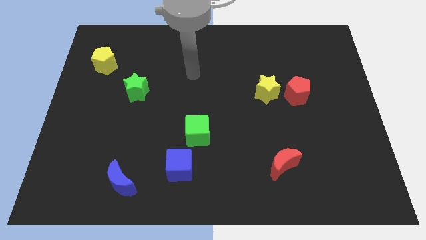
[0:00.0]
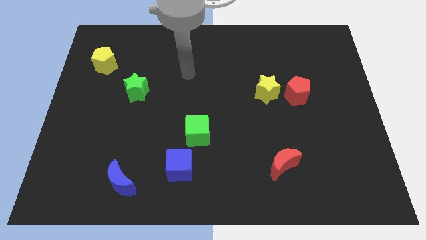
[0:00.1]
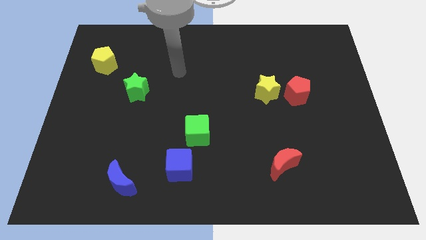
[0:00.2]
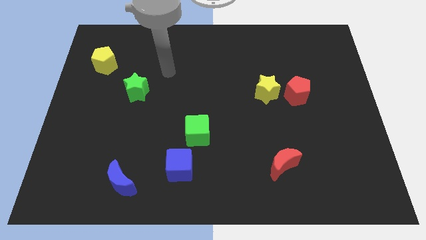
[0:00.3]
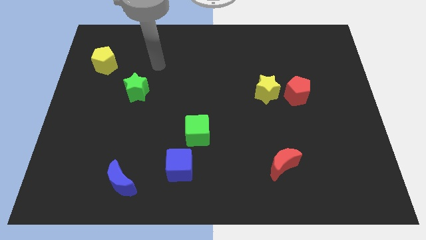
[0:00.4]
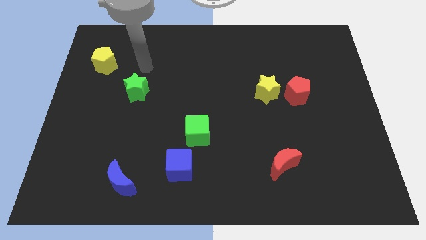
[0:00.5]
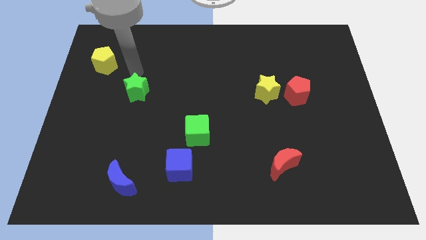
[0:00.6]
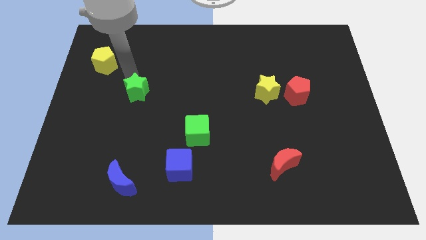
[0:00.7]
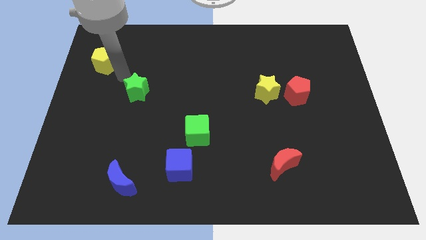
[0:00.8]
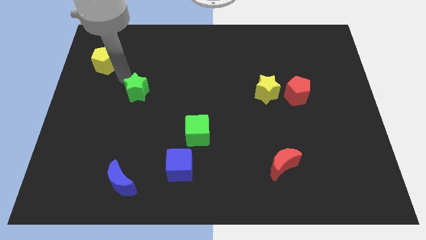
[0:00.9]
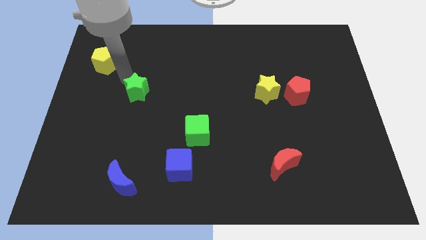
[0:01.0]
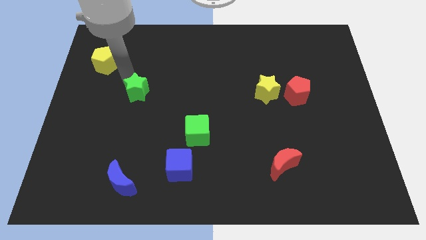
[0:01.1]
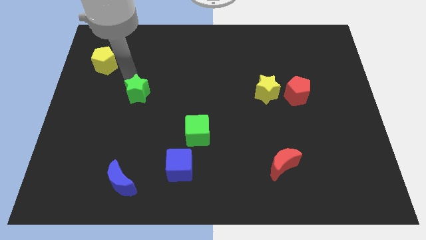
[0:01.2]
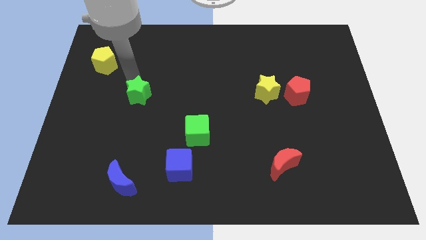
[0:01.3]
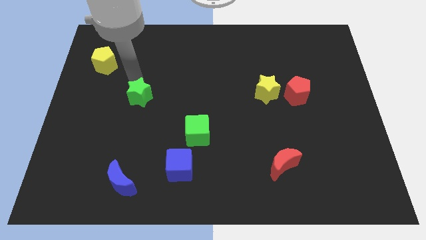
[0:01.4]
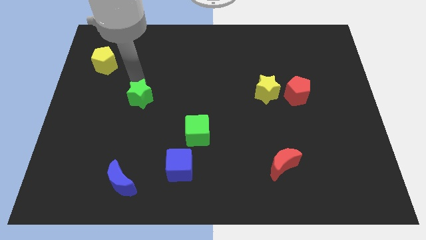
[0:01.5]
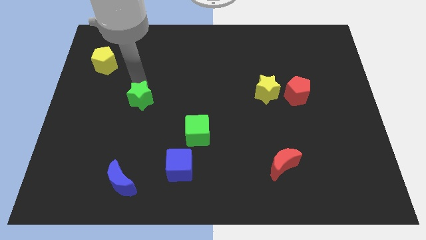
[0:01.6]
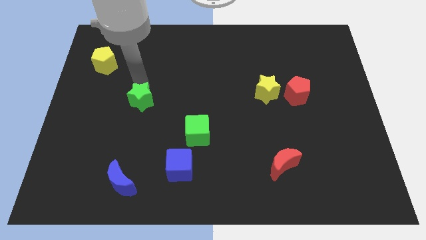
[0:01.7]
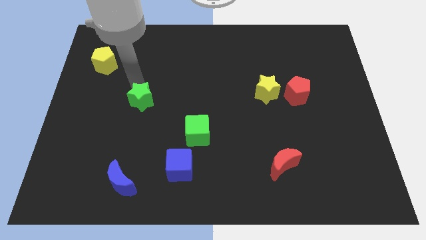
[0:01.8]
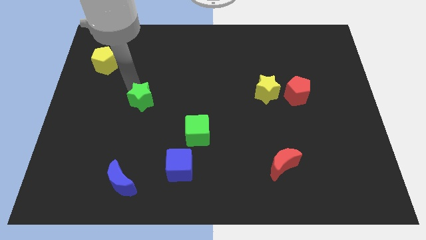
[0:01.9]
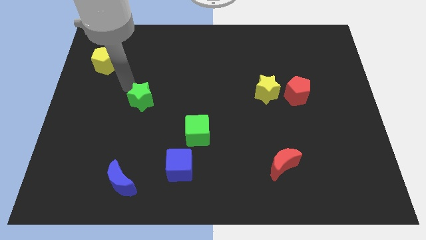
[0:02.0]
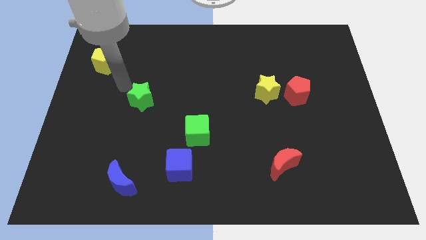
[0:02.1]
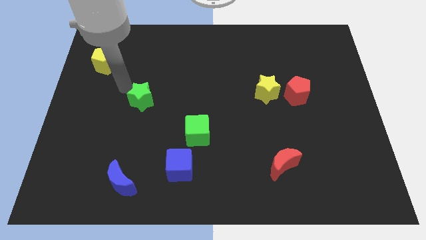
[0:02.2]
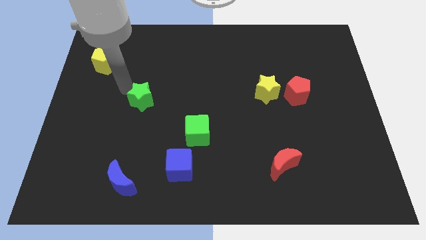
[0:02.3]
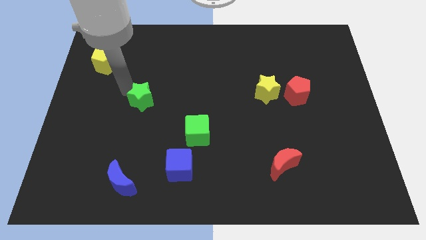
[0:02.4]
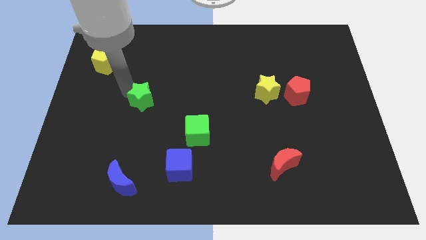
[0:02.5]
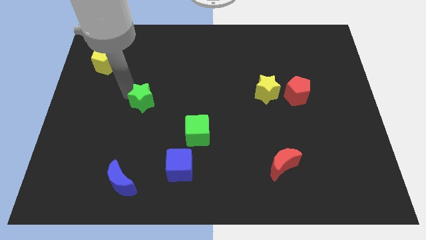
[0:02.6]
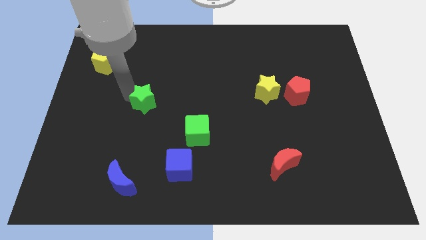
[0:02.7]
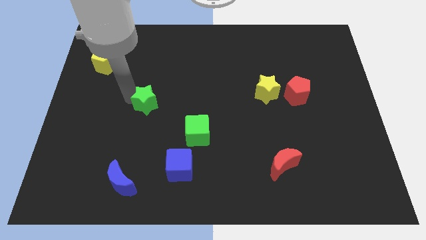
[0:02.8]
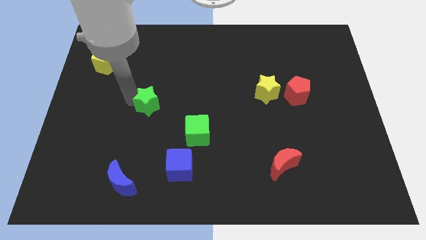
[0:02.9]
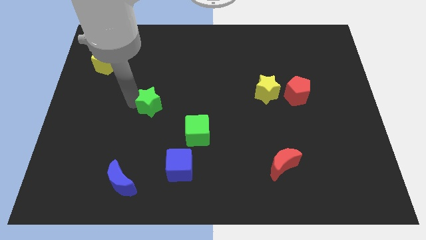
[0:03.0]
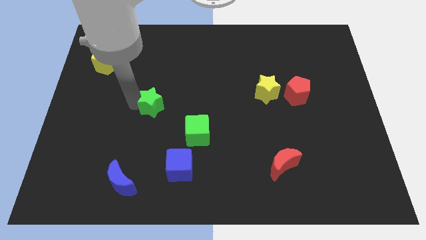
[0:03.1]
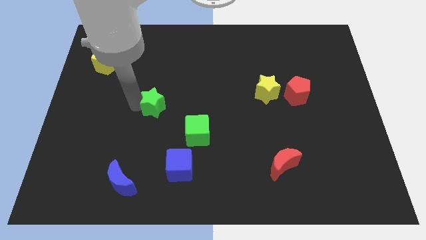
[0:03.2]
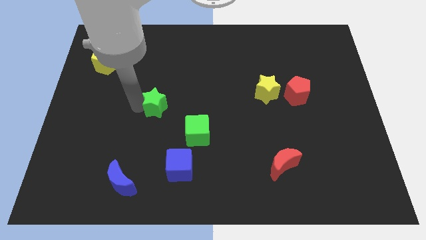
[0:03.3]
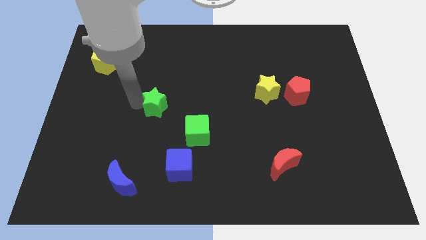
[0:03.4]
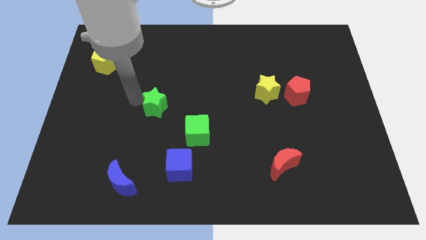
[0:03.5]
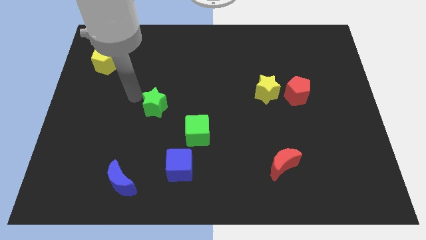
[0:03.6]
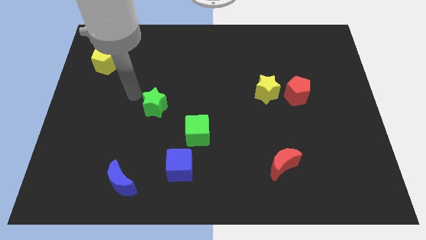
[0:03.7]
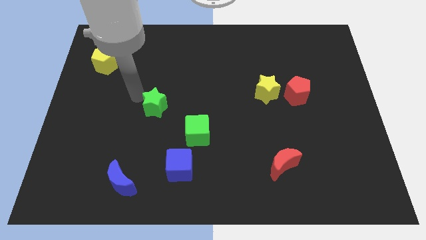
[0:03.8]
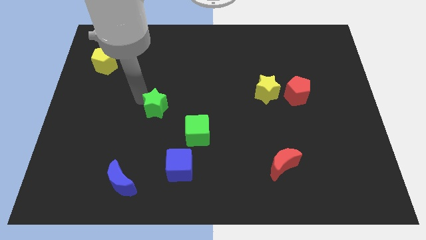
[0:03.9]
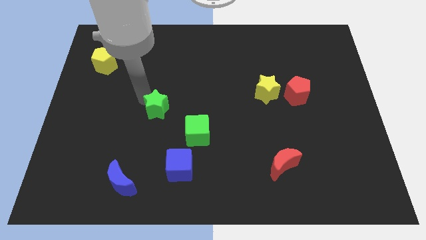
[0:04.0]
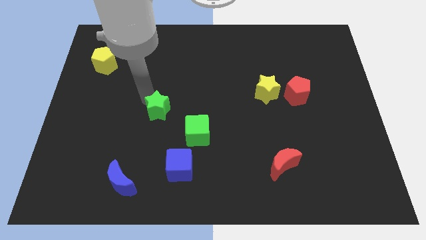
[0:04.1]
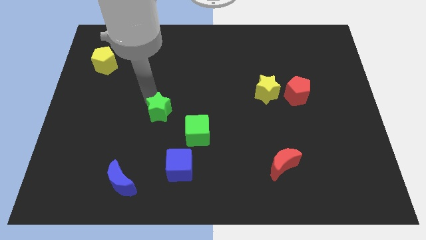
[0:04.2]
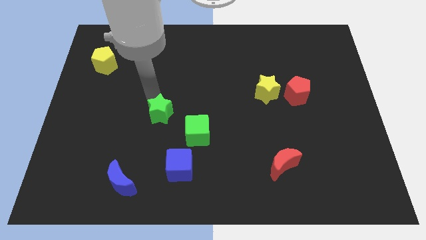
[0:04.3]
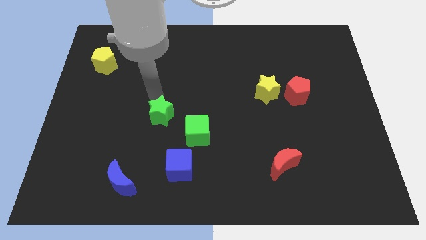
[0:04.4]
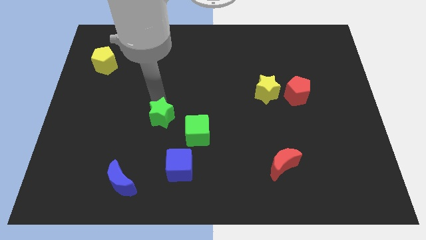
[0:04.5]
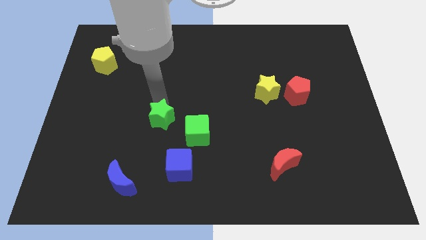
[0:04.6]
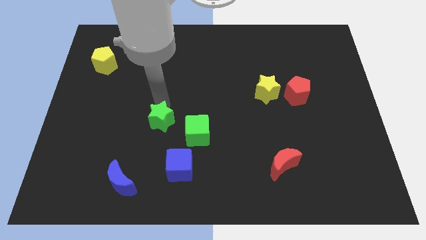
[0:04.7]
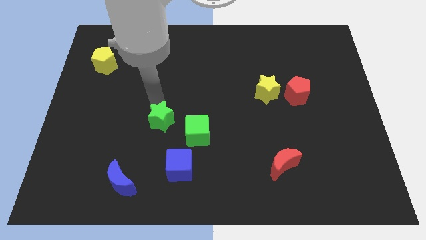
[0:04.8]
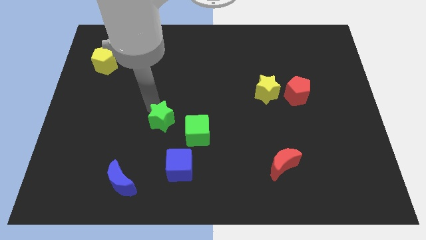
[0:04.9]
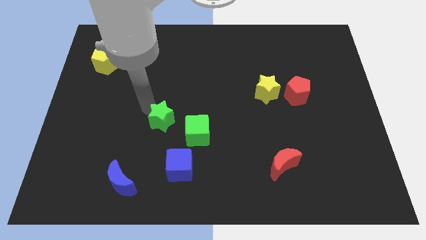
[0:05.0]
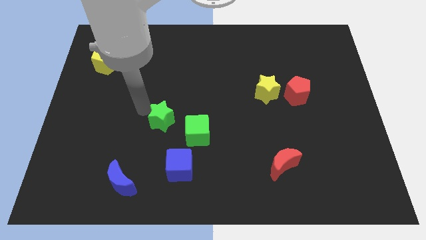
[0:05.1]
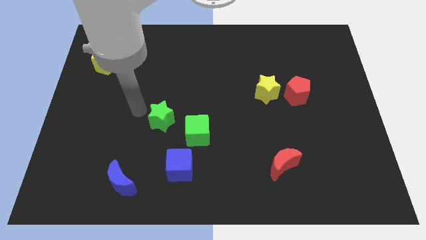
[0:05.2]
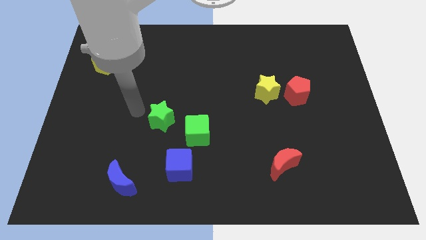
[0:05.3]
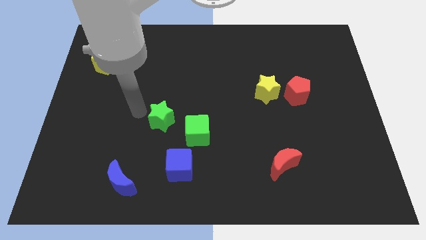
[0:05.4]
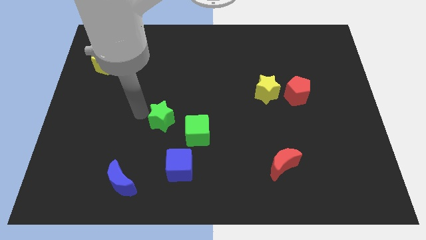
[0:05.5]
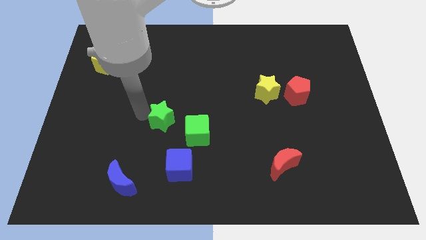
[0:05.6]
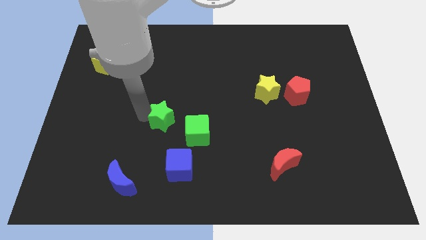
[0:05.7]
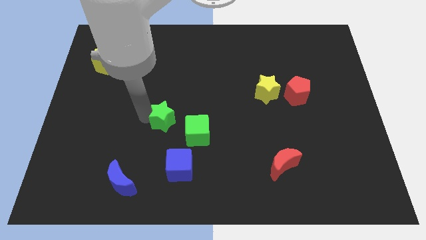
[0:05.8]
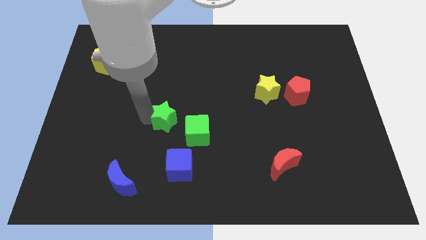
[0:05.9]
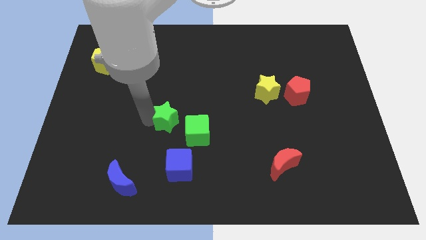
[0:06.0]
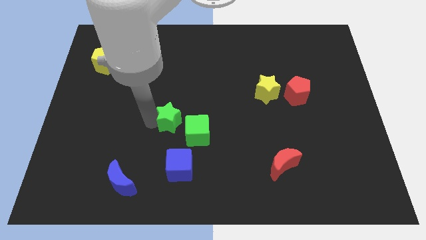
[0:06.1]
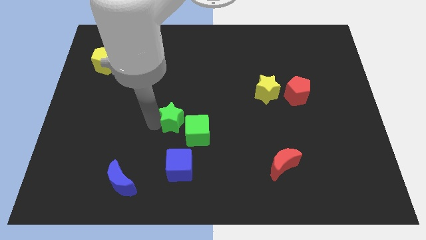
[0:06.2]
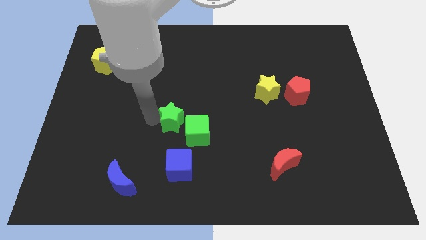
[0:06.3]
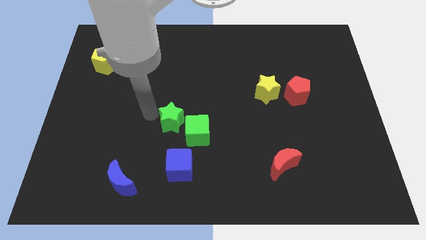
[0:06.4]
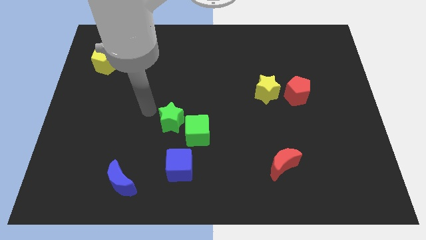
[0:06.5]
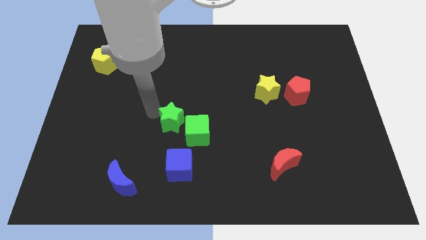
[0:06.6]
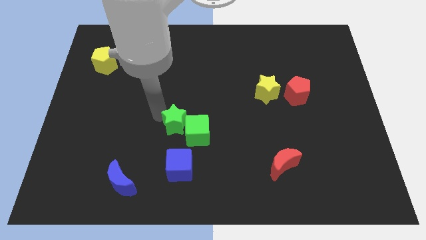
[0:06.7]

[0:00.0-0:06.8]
slide the green star next to the green cube

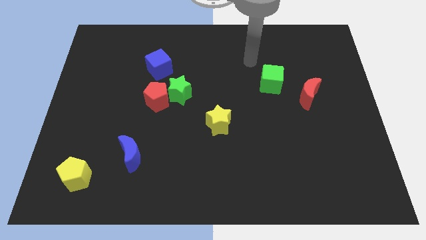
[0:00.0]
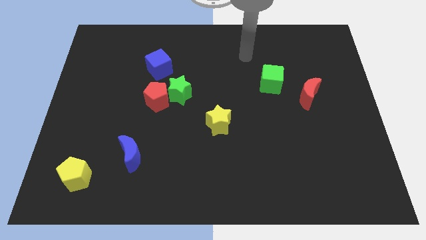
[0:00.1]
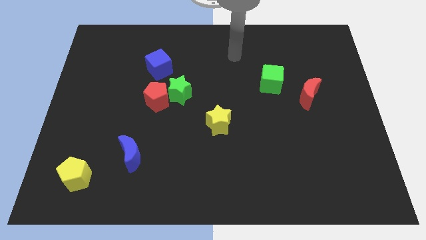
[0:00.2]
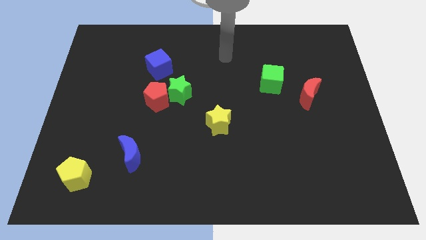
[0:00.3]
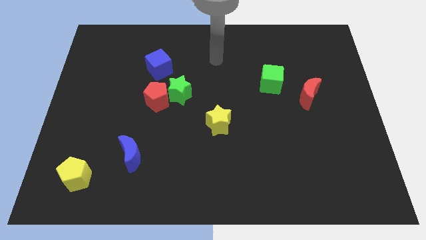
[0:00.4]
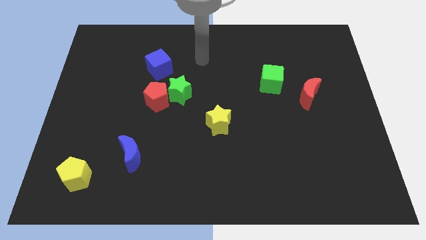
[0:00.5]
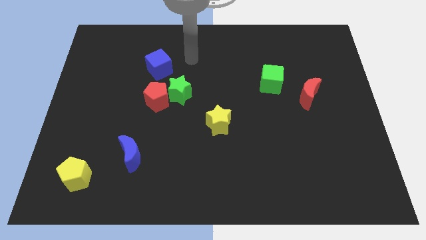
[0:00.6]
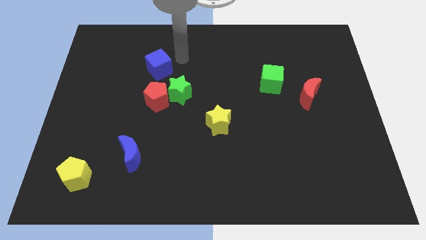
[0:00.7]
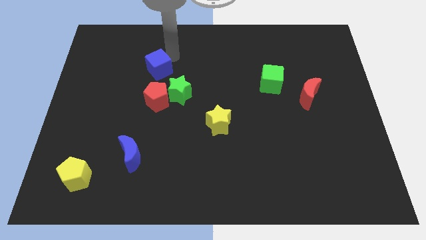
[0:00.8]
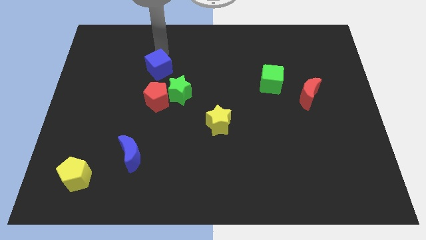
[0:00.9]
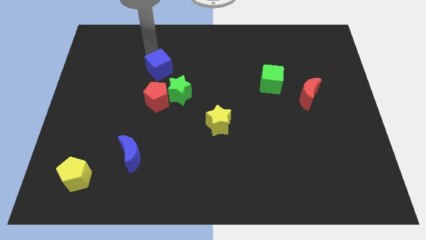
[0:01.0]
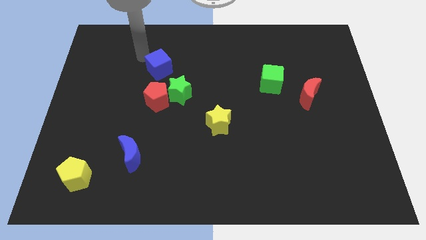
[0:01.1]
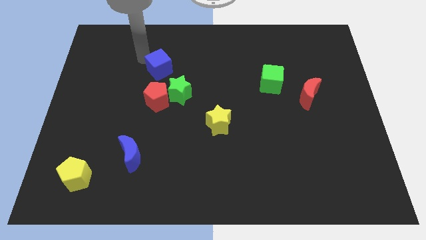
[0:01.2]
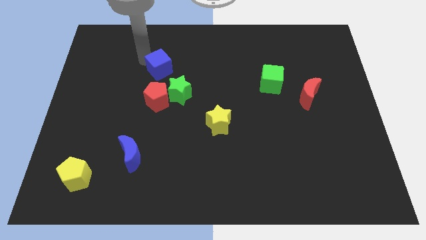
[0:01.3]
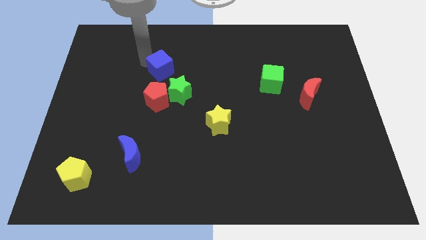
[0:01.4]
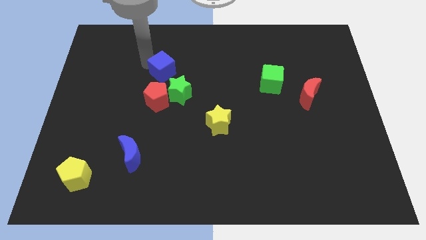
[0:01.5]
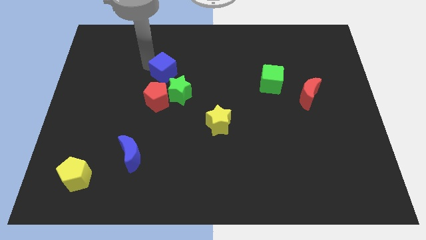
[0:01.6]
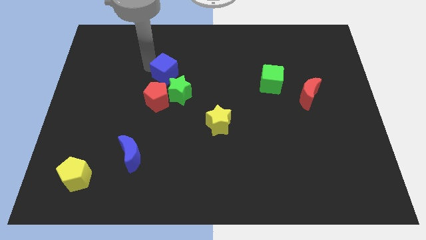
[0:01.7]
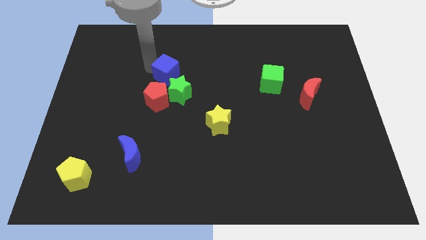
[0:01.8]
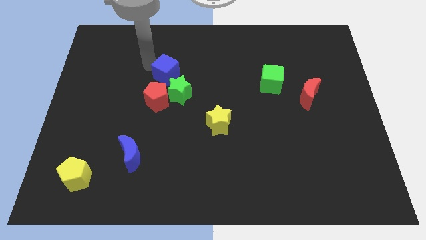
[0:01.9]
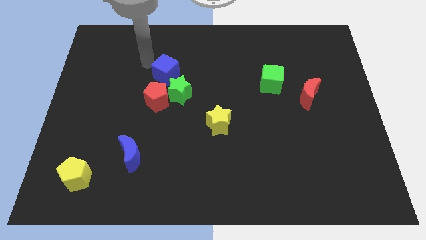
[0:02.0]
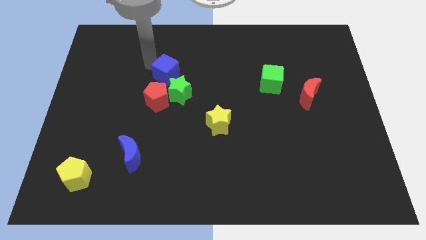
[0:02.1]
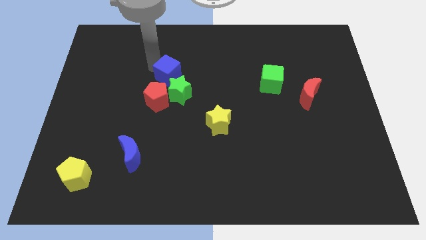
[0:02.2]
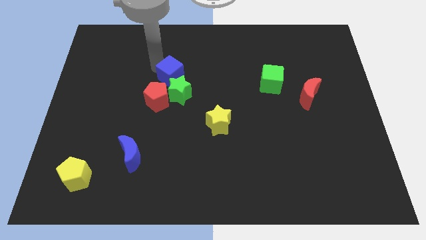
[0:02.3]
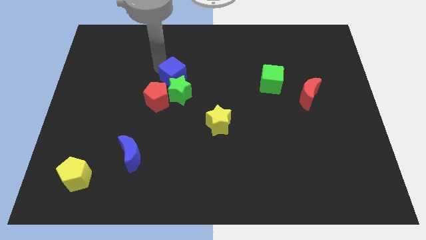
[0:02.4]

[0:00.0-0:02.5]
push the blue cube to the green star
